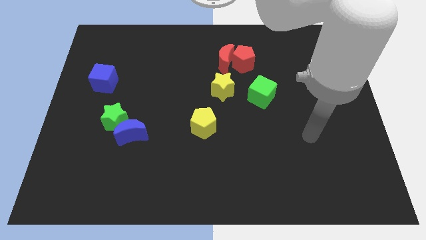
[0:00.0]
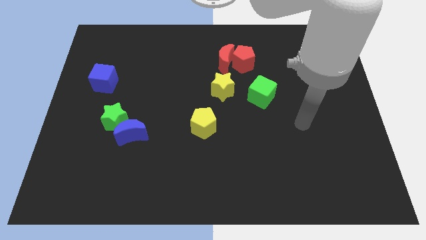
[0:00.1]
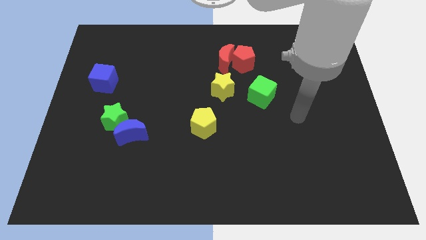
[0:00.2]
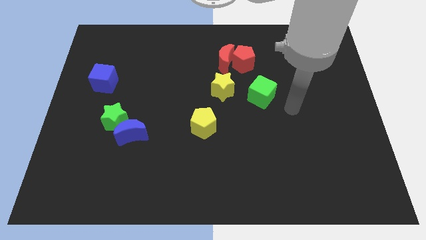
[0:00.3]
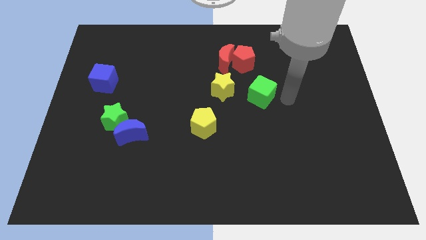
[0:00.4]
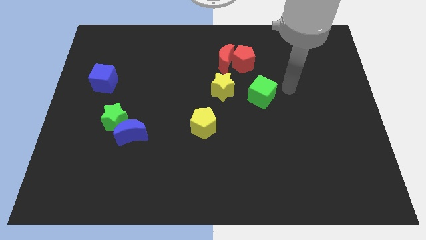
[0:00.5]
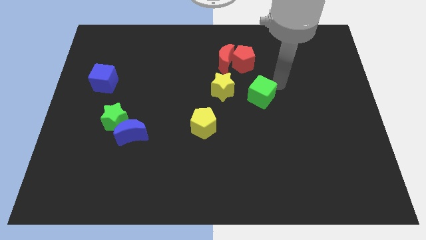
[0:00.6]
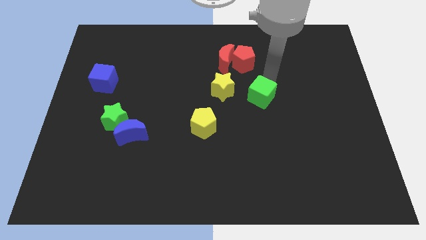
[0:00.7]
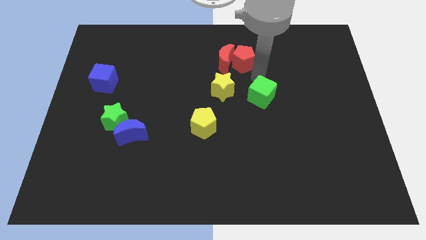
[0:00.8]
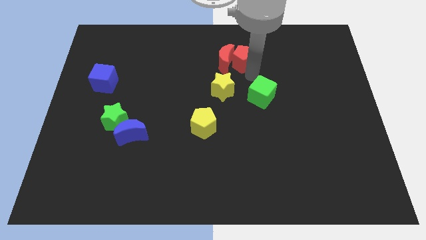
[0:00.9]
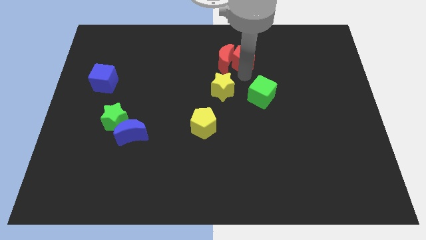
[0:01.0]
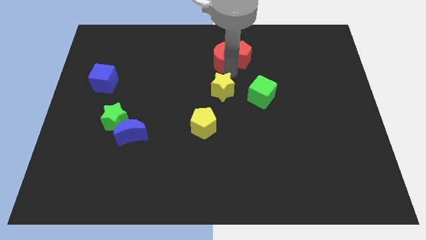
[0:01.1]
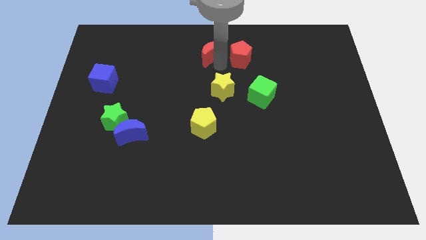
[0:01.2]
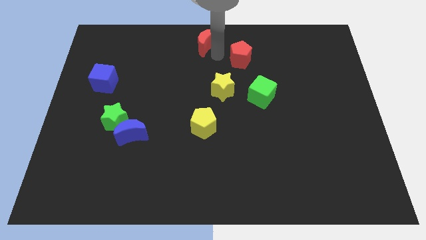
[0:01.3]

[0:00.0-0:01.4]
pull the red pentagon apart from the red moon

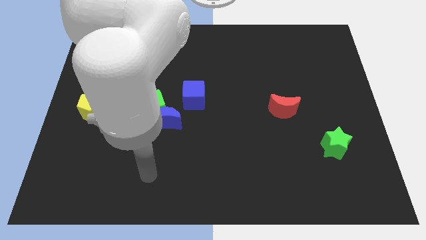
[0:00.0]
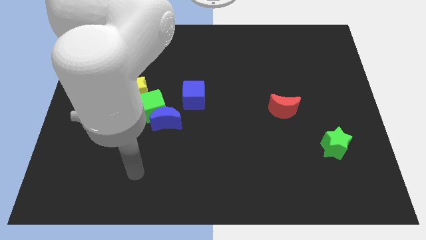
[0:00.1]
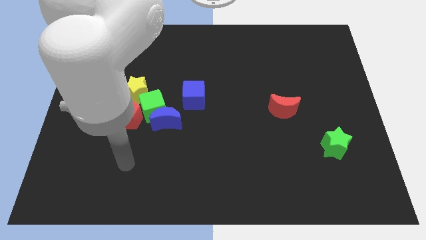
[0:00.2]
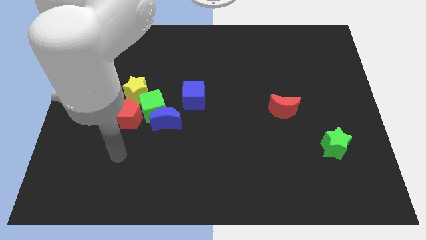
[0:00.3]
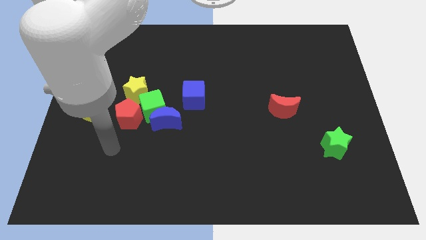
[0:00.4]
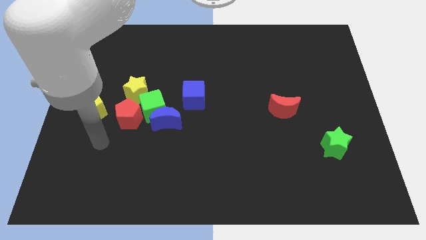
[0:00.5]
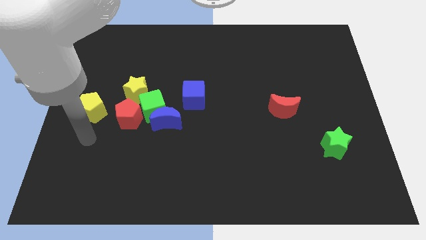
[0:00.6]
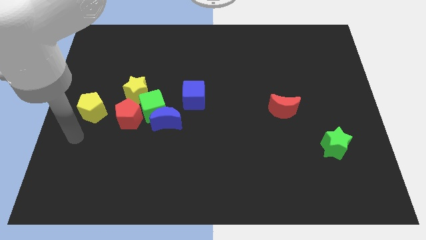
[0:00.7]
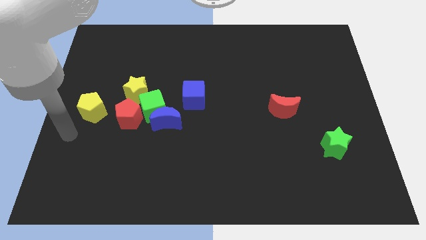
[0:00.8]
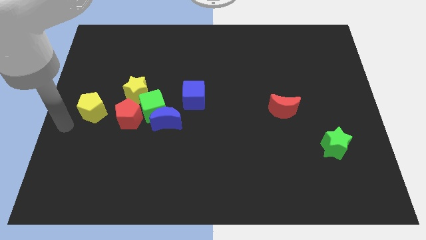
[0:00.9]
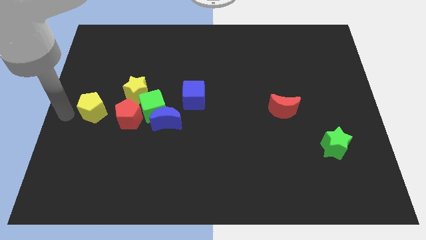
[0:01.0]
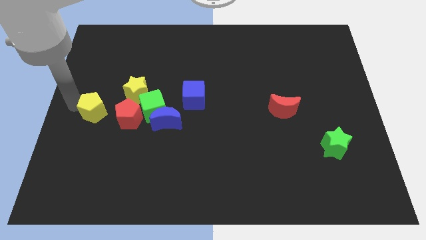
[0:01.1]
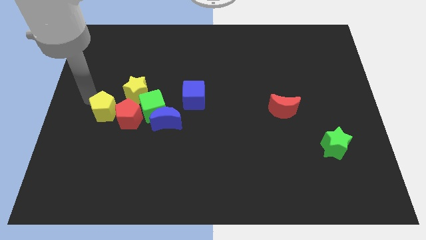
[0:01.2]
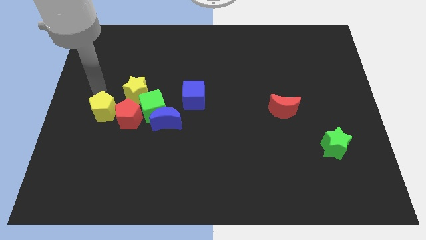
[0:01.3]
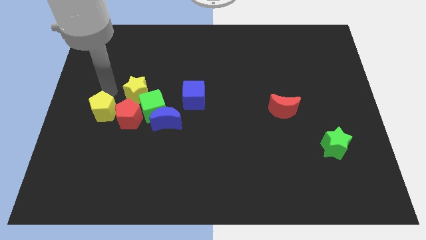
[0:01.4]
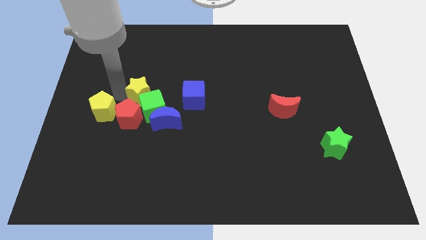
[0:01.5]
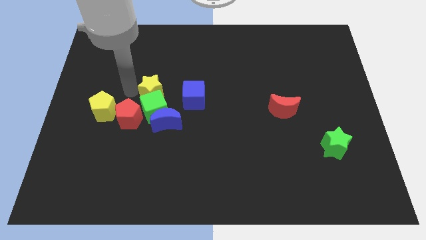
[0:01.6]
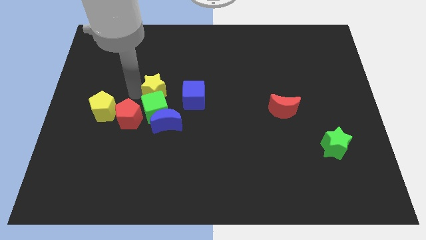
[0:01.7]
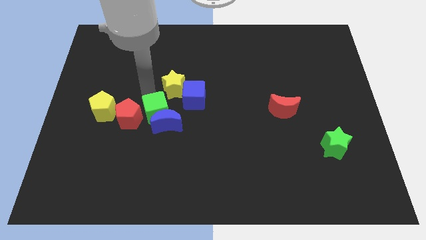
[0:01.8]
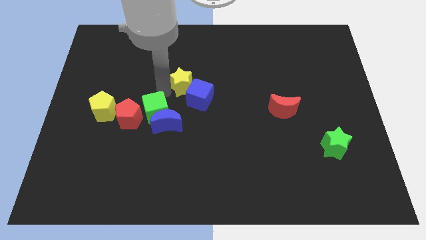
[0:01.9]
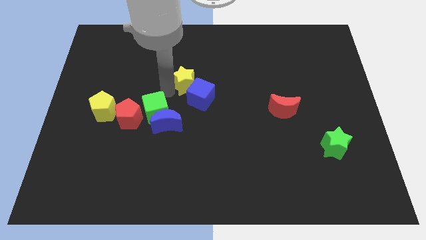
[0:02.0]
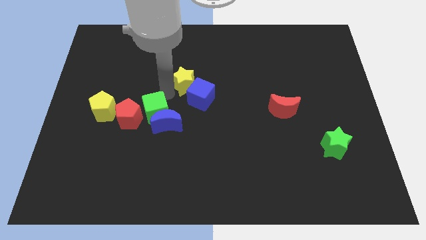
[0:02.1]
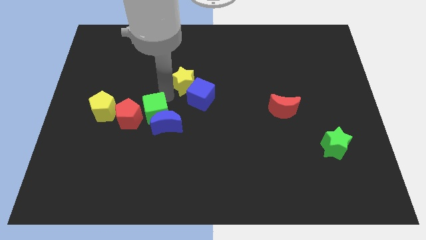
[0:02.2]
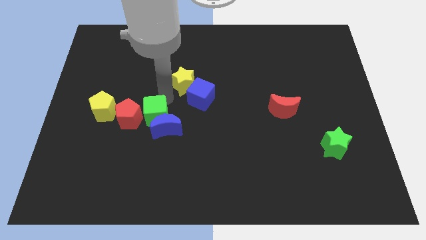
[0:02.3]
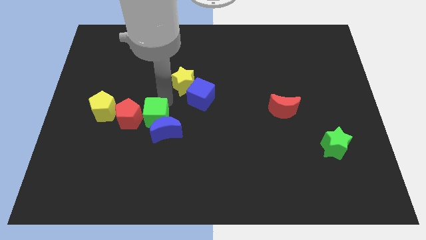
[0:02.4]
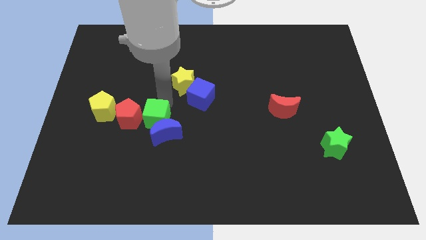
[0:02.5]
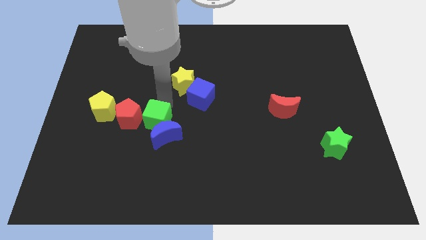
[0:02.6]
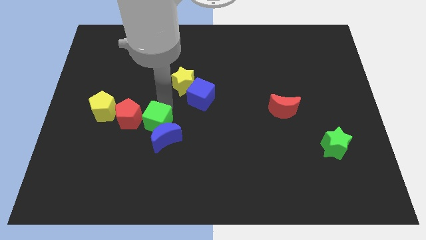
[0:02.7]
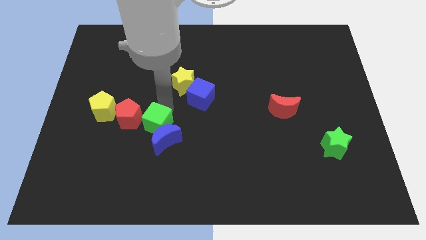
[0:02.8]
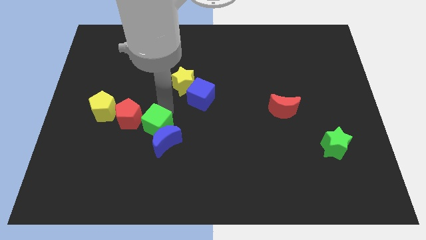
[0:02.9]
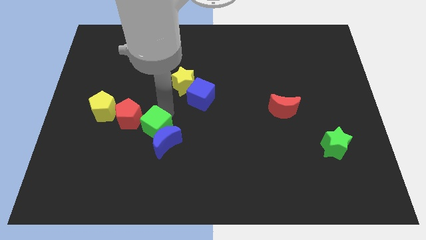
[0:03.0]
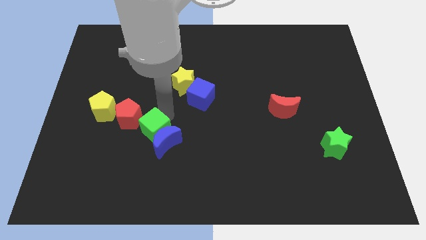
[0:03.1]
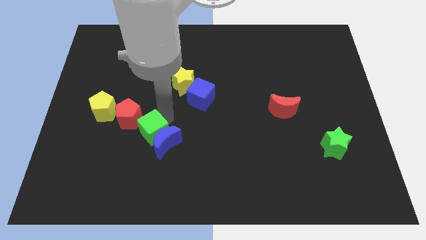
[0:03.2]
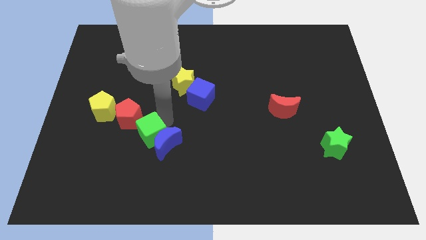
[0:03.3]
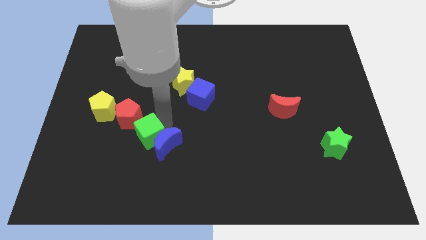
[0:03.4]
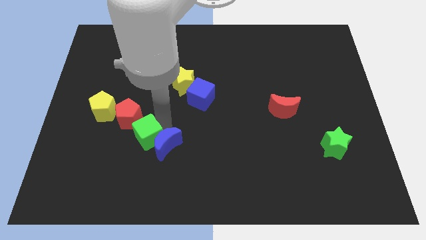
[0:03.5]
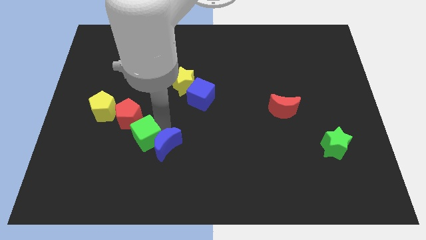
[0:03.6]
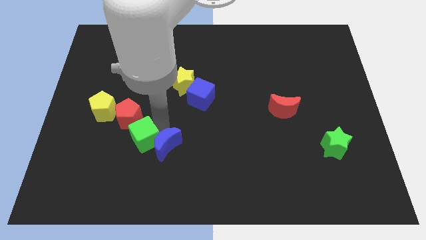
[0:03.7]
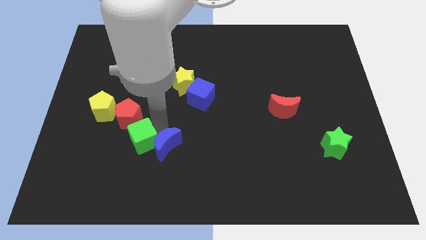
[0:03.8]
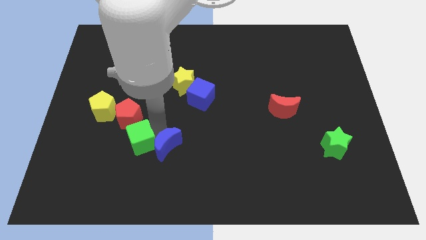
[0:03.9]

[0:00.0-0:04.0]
move the green cube away from the clump

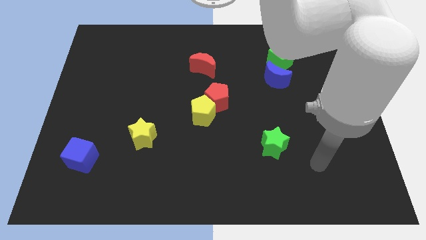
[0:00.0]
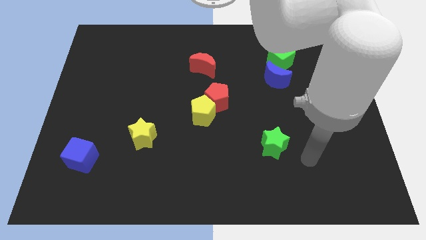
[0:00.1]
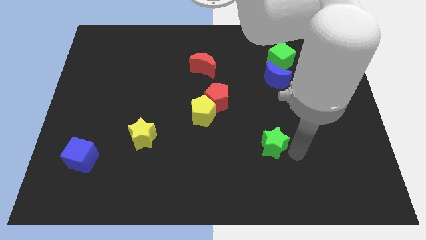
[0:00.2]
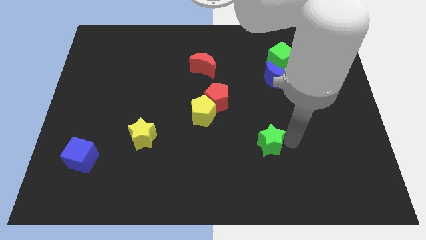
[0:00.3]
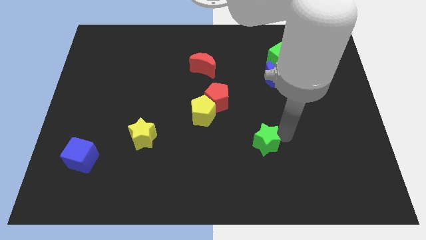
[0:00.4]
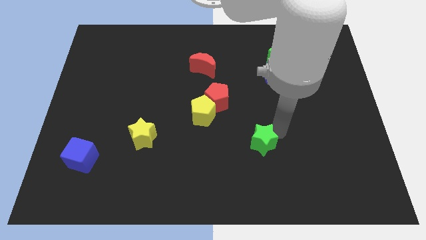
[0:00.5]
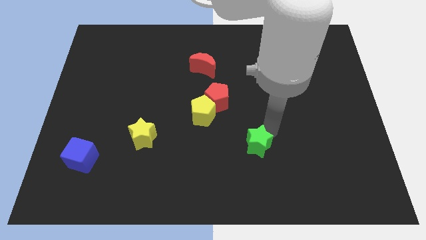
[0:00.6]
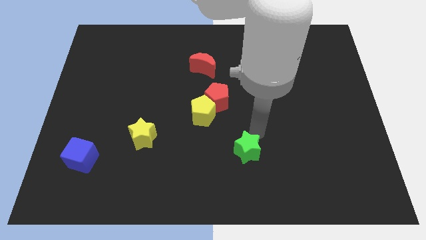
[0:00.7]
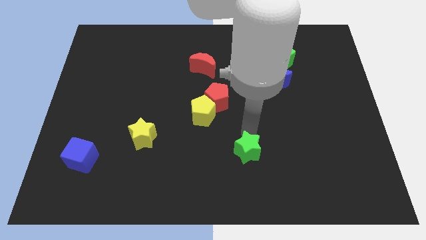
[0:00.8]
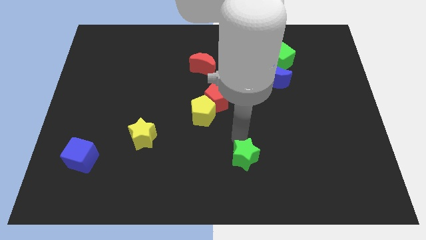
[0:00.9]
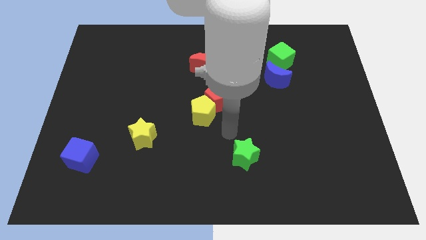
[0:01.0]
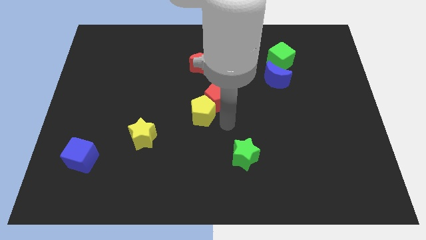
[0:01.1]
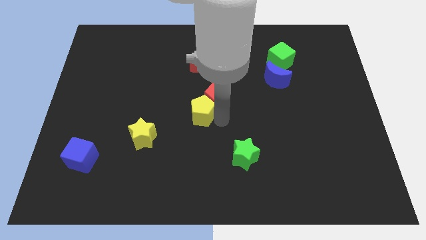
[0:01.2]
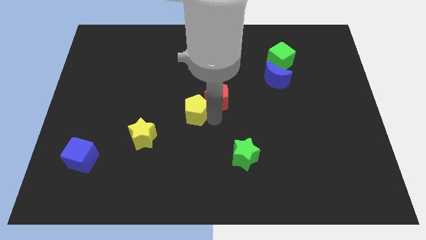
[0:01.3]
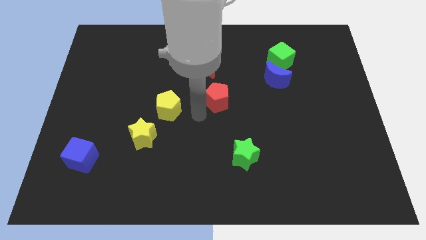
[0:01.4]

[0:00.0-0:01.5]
move the red pentagon away from the yellow pentagon

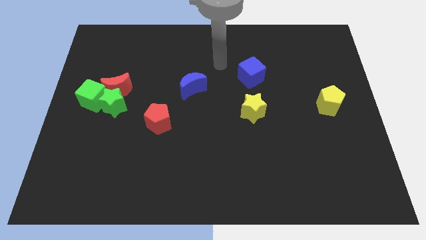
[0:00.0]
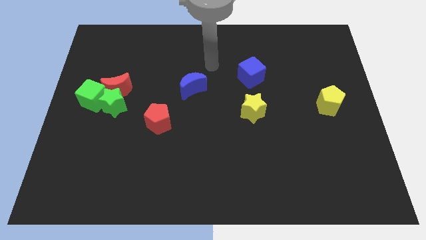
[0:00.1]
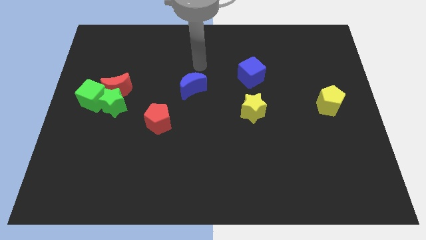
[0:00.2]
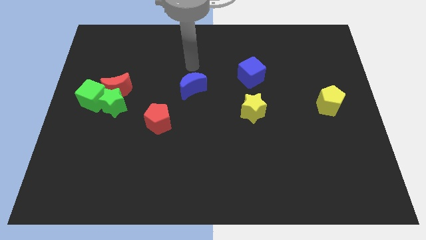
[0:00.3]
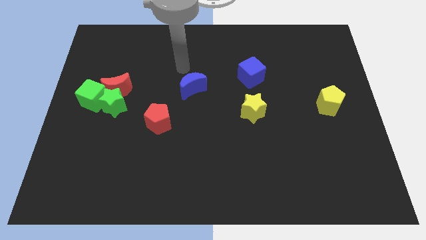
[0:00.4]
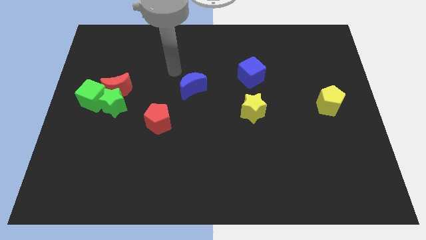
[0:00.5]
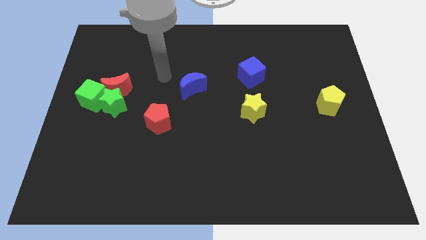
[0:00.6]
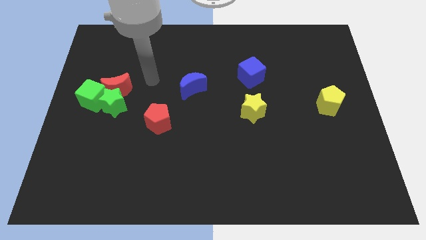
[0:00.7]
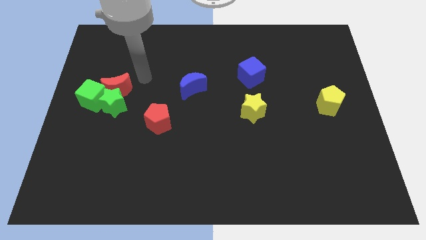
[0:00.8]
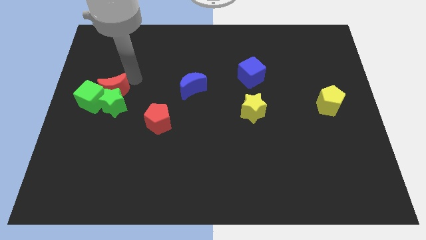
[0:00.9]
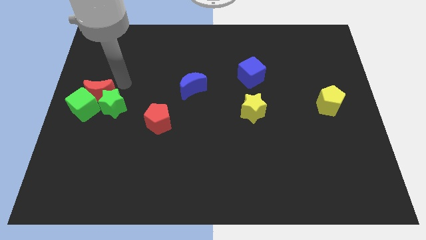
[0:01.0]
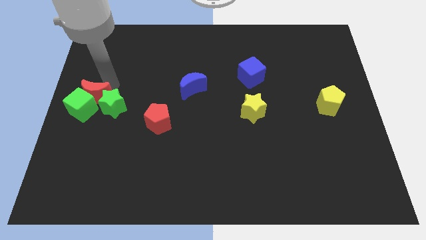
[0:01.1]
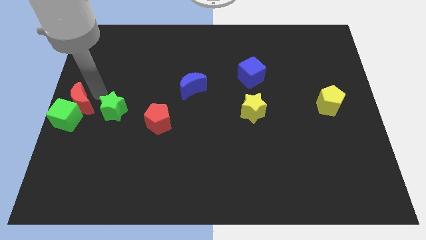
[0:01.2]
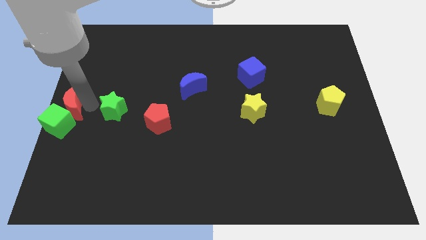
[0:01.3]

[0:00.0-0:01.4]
pull the green star apart from the red moon and green cube

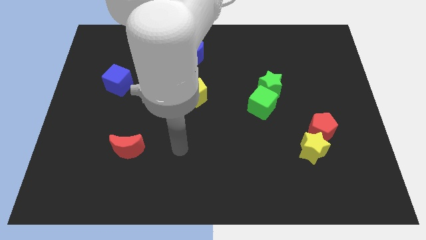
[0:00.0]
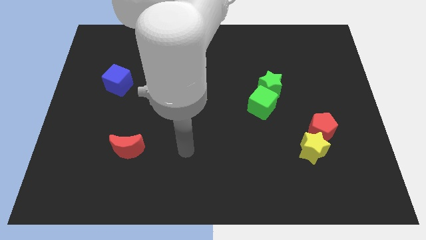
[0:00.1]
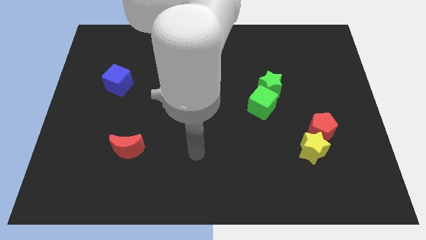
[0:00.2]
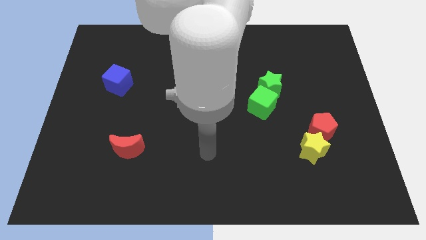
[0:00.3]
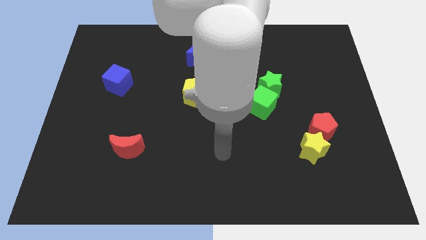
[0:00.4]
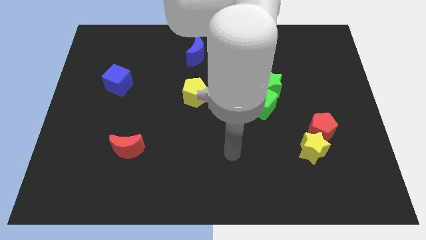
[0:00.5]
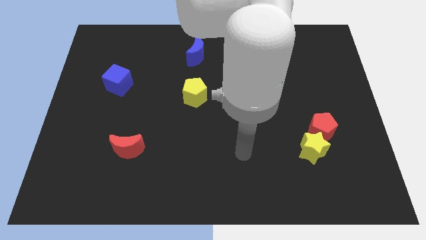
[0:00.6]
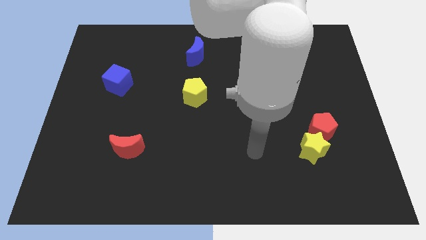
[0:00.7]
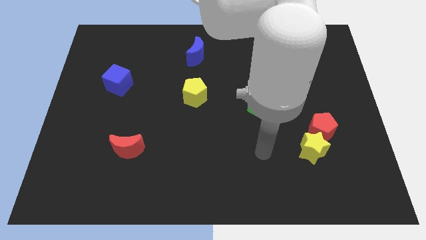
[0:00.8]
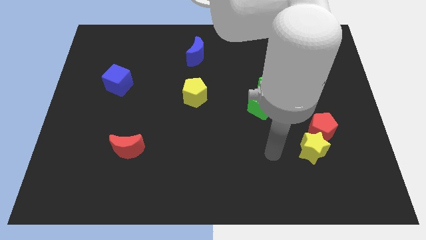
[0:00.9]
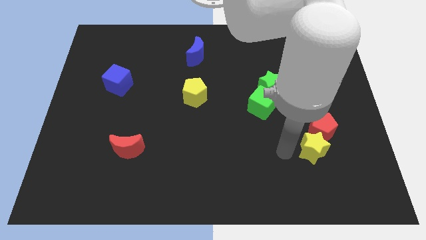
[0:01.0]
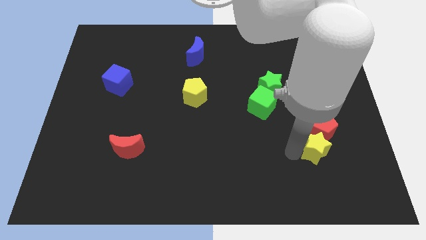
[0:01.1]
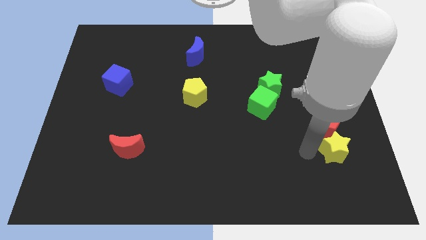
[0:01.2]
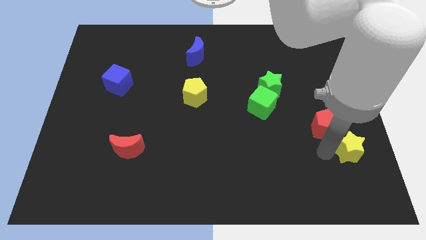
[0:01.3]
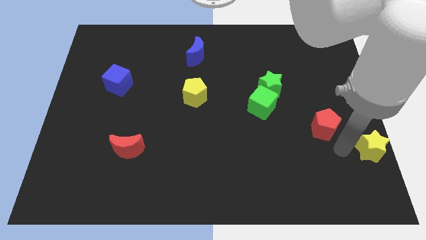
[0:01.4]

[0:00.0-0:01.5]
pull the red pentagon apart from the yellow star
